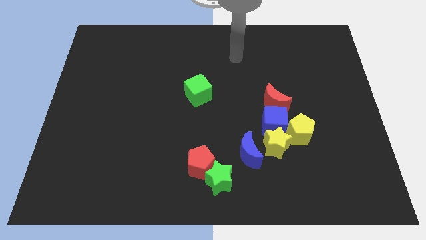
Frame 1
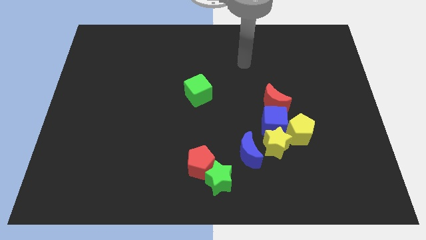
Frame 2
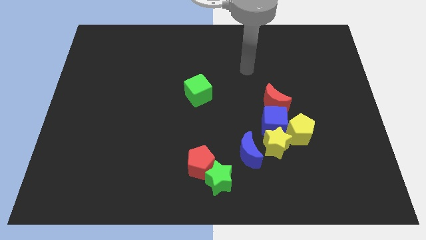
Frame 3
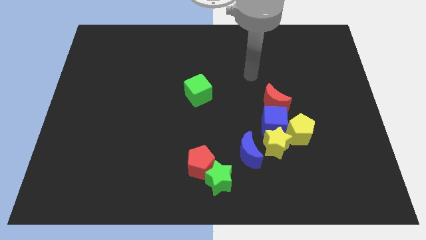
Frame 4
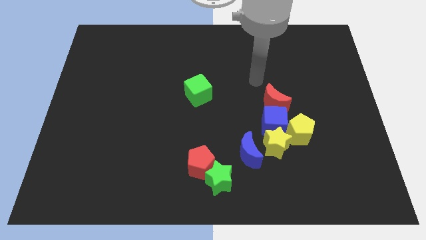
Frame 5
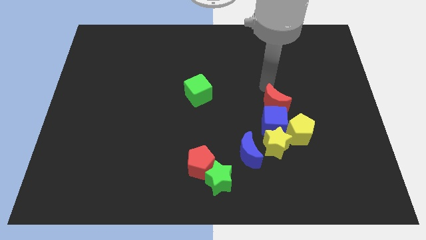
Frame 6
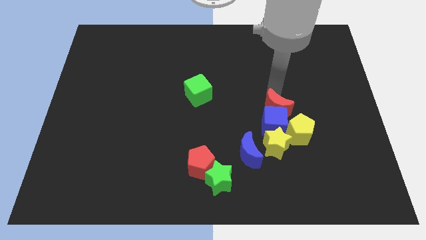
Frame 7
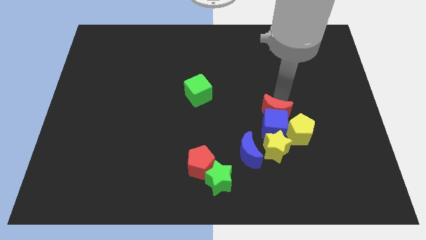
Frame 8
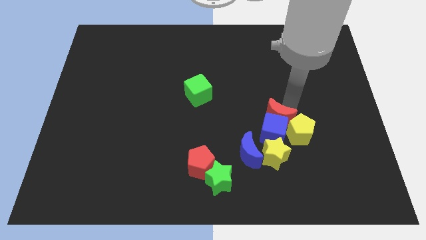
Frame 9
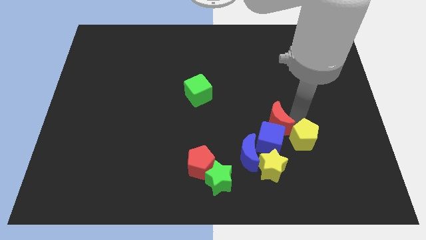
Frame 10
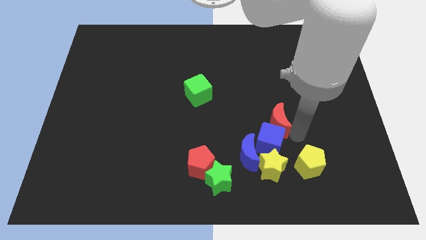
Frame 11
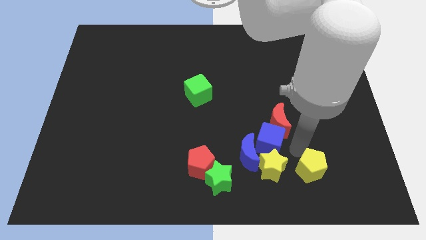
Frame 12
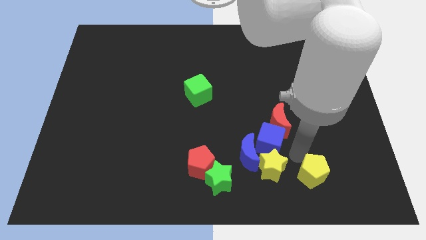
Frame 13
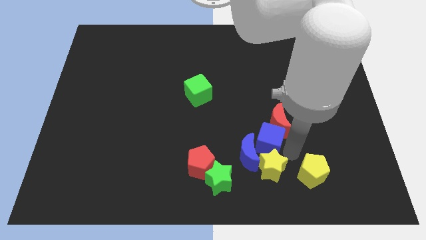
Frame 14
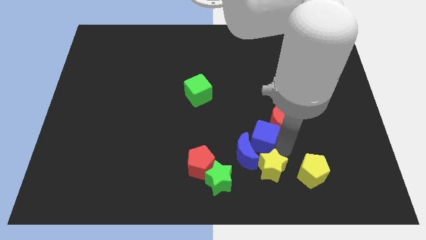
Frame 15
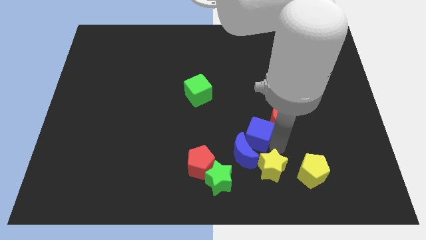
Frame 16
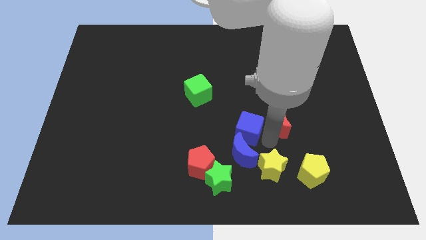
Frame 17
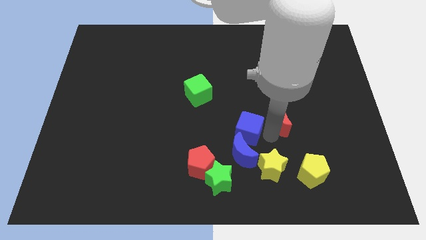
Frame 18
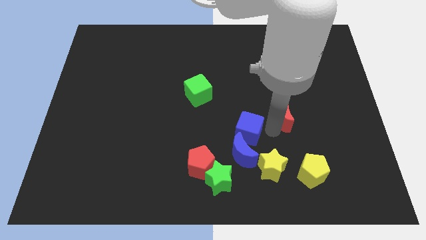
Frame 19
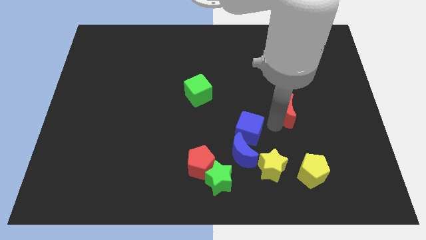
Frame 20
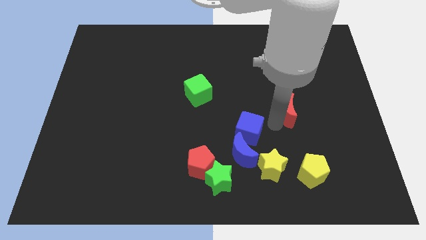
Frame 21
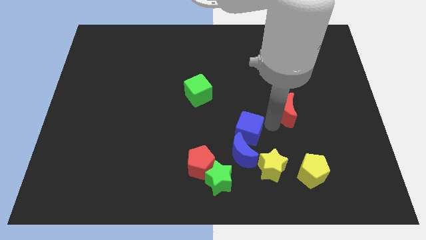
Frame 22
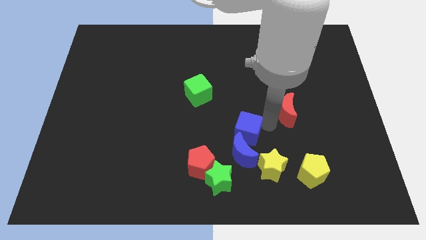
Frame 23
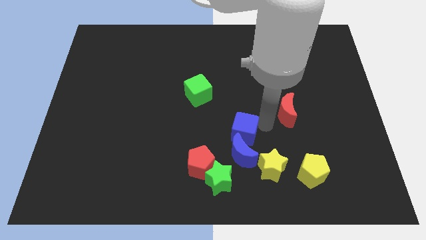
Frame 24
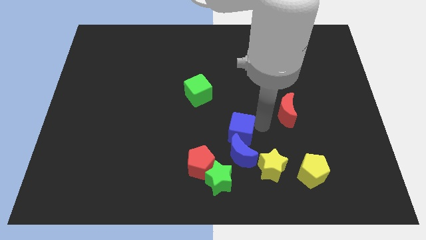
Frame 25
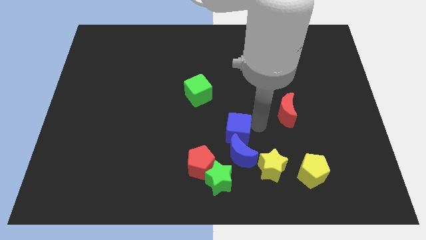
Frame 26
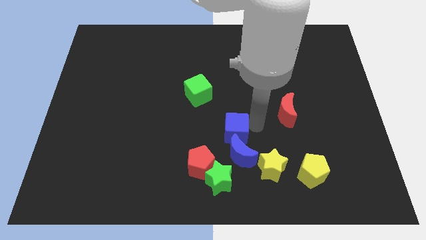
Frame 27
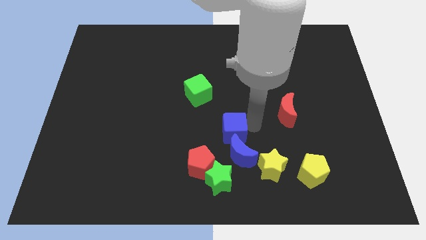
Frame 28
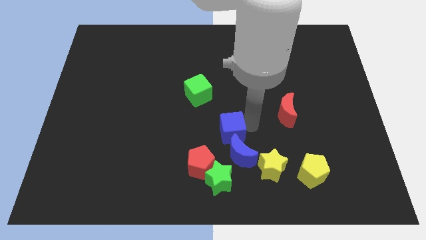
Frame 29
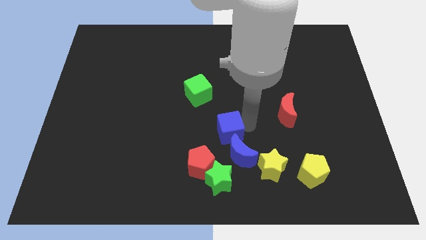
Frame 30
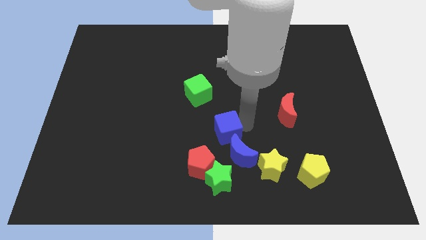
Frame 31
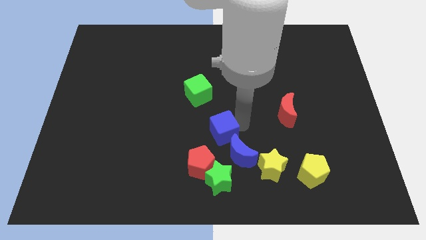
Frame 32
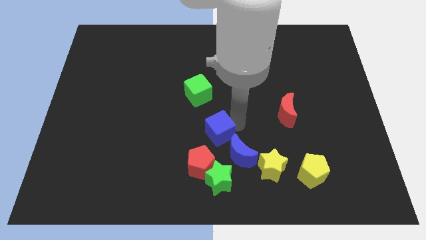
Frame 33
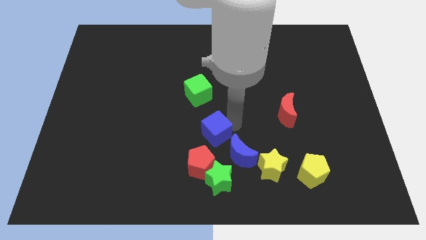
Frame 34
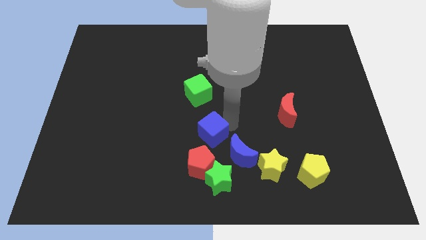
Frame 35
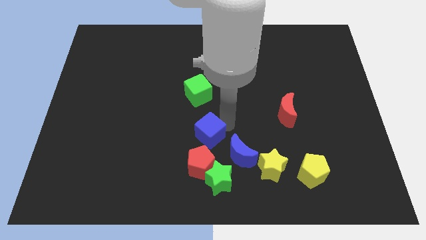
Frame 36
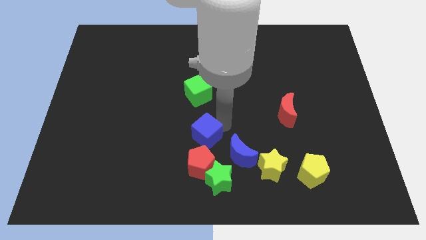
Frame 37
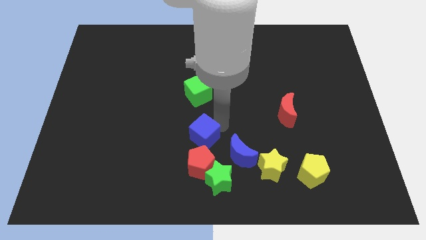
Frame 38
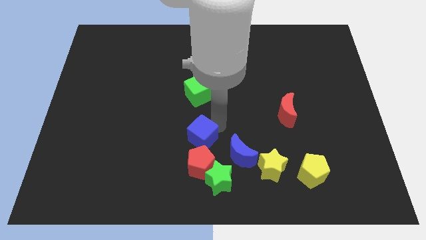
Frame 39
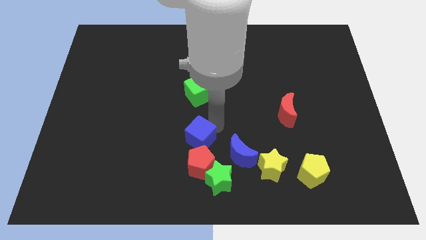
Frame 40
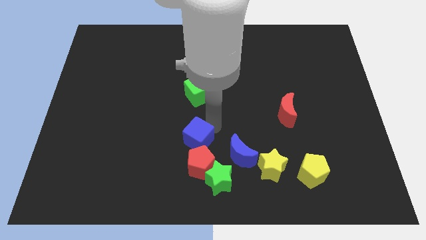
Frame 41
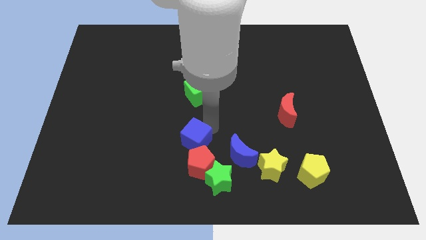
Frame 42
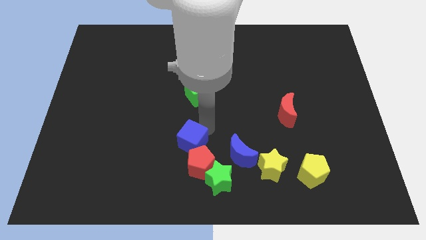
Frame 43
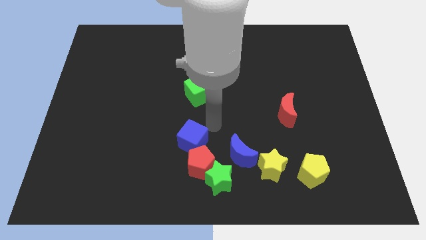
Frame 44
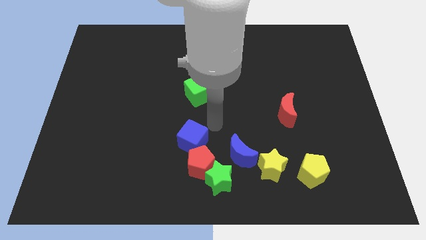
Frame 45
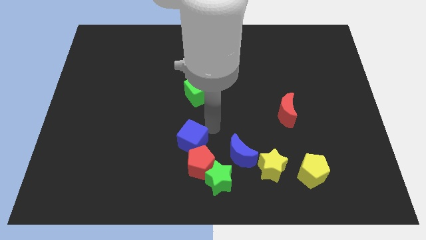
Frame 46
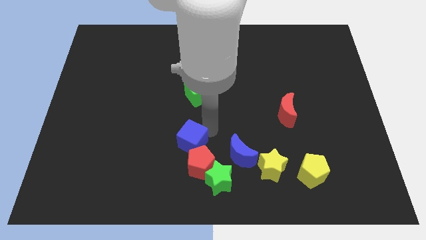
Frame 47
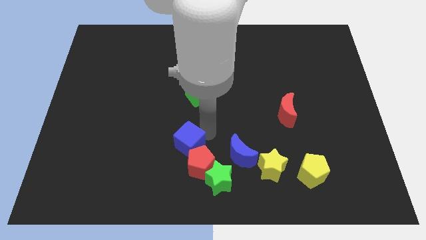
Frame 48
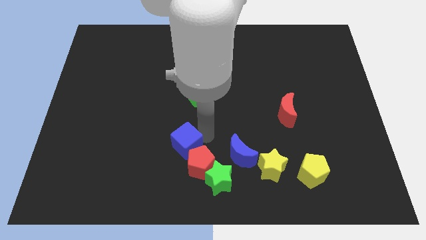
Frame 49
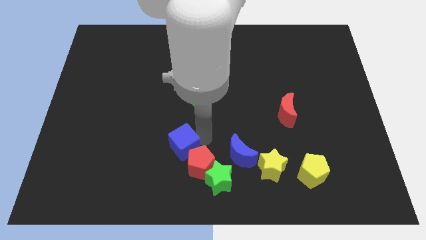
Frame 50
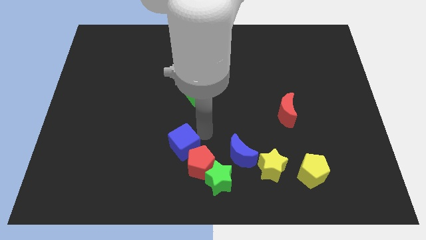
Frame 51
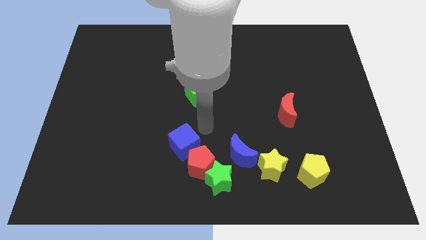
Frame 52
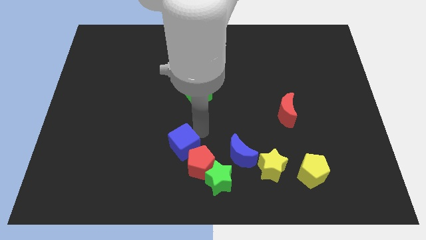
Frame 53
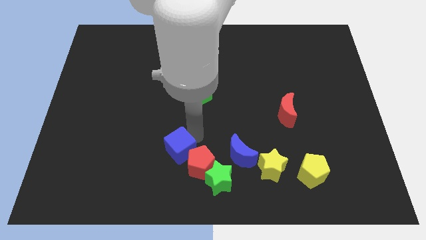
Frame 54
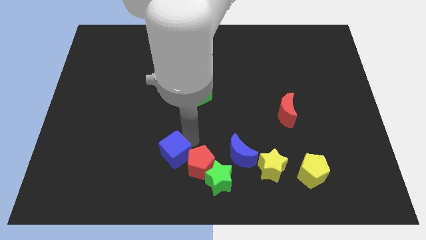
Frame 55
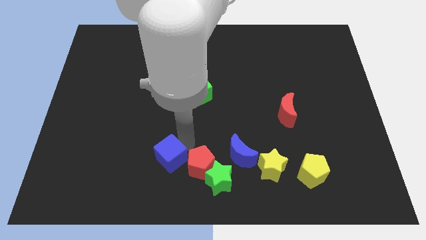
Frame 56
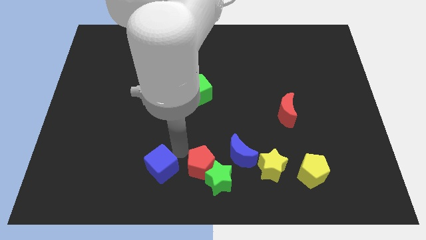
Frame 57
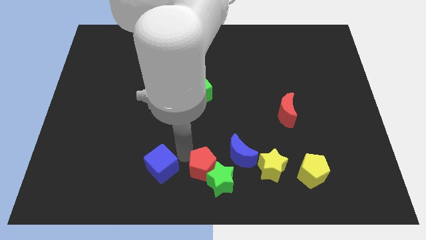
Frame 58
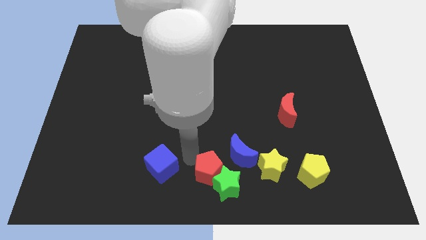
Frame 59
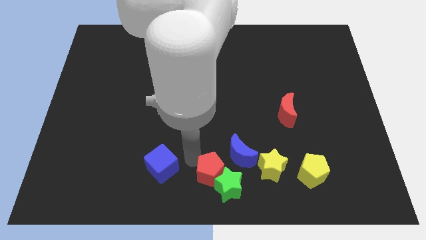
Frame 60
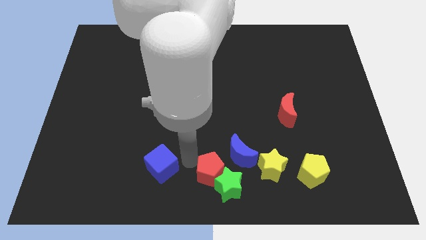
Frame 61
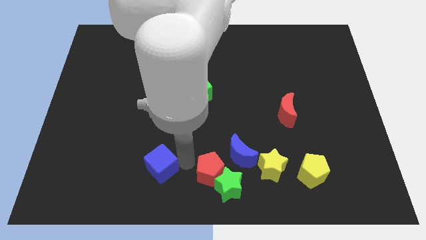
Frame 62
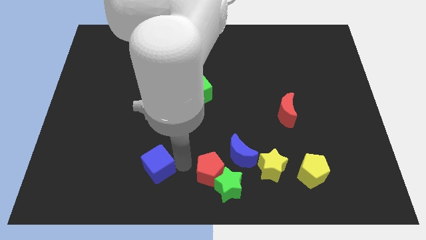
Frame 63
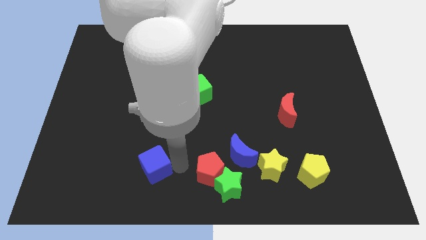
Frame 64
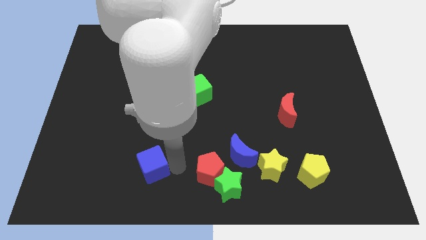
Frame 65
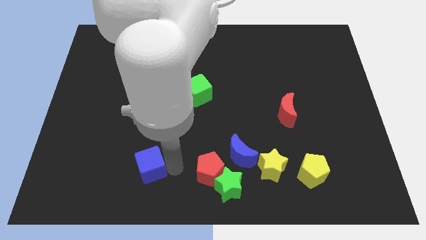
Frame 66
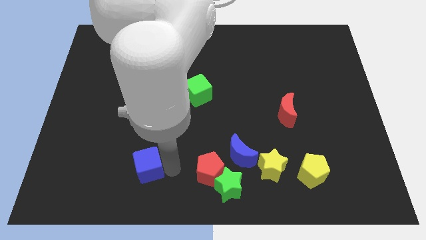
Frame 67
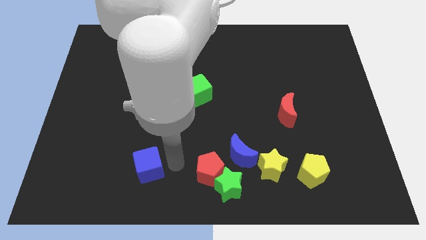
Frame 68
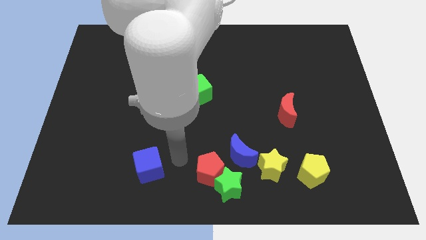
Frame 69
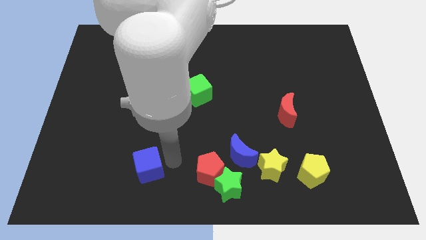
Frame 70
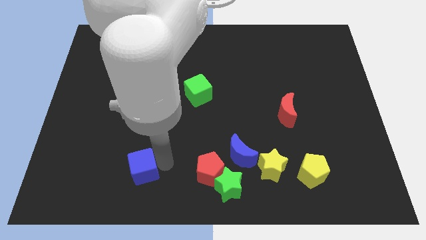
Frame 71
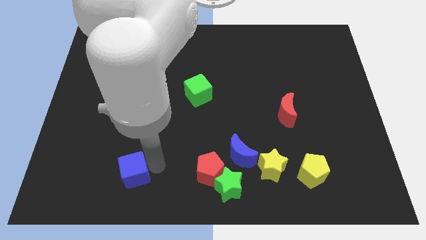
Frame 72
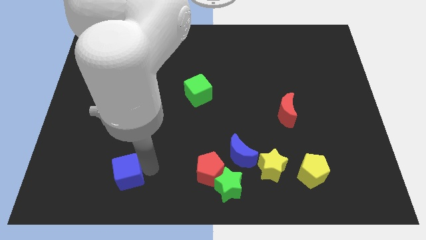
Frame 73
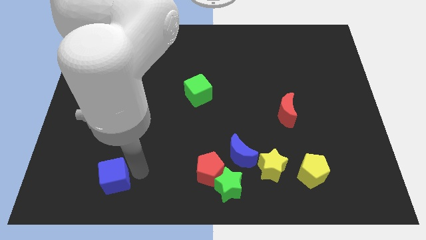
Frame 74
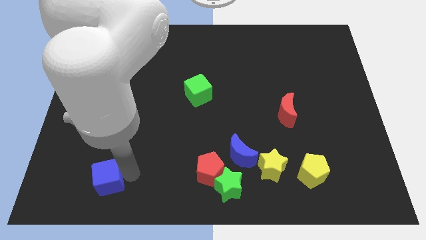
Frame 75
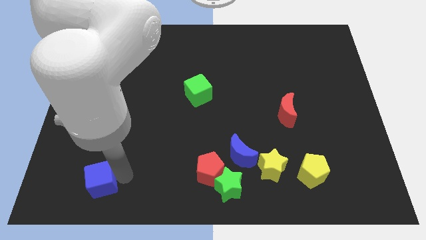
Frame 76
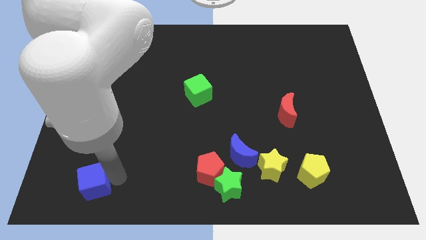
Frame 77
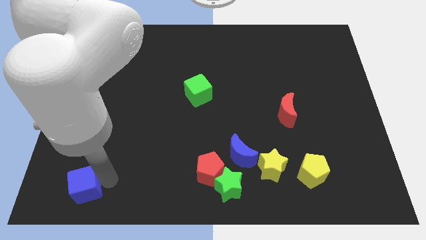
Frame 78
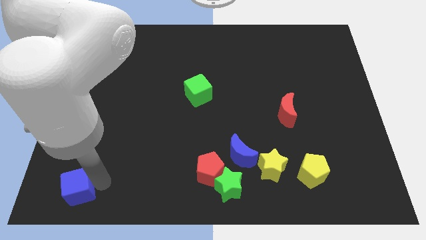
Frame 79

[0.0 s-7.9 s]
slide the blue cube to the bottom left corner
